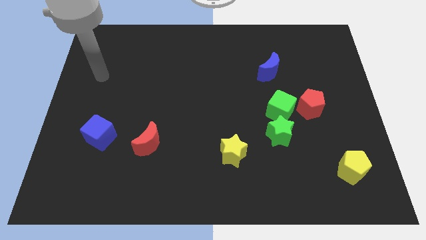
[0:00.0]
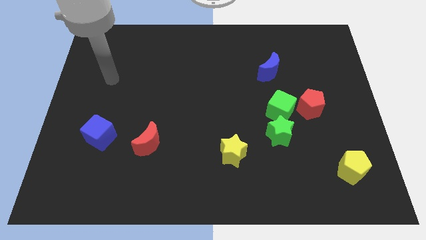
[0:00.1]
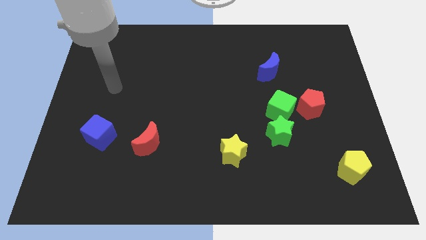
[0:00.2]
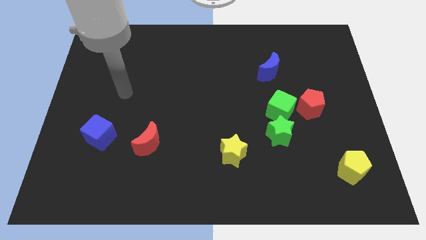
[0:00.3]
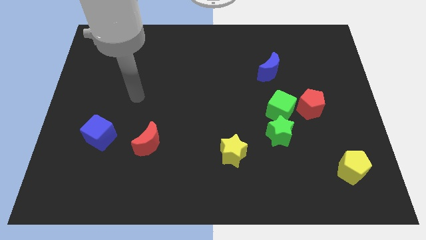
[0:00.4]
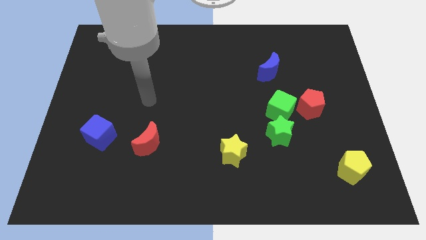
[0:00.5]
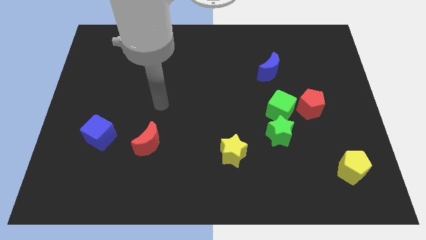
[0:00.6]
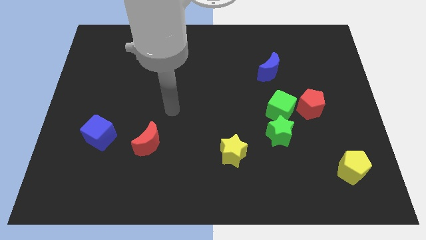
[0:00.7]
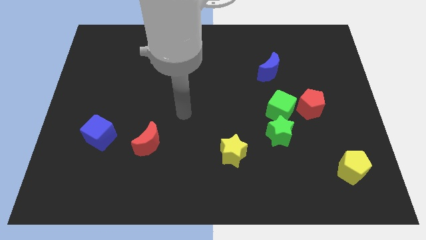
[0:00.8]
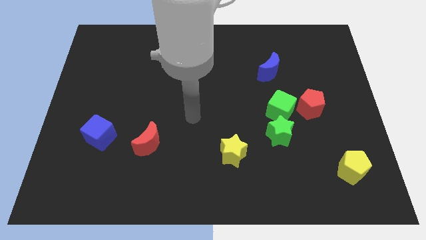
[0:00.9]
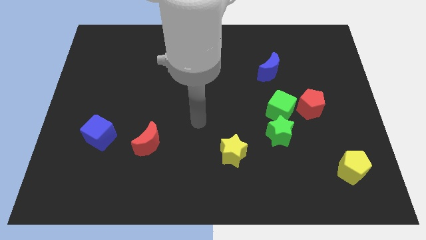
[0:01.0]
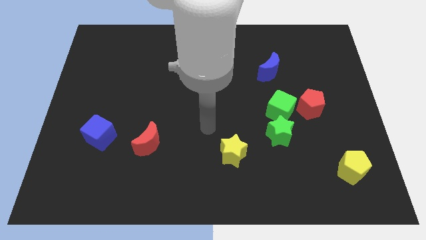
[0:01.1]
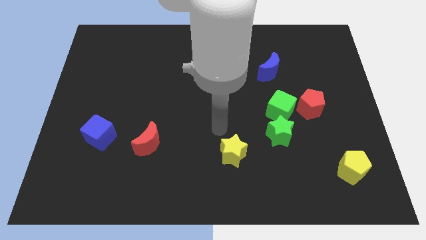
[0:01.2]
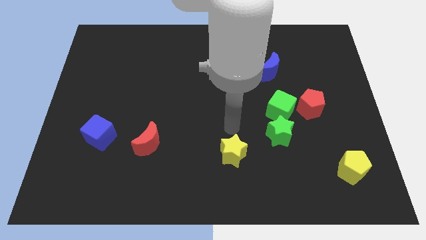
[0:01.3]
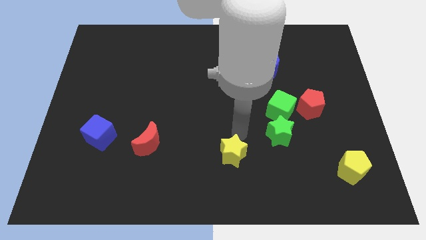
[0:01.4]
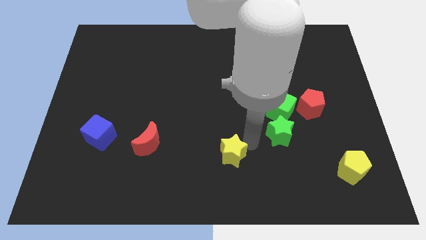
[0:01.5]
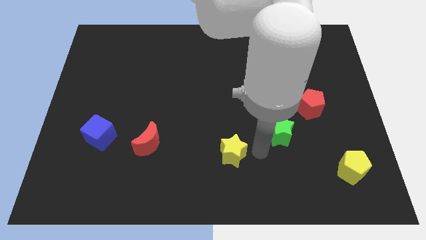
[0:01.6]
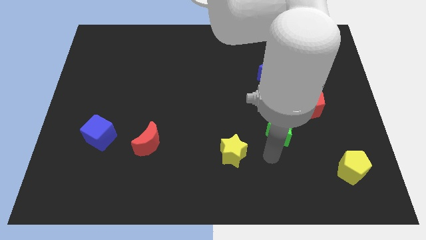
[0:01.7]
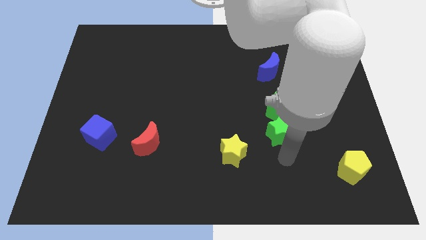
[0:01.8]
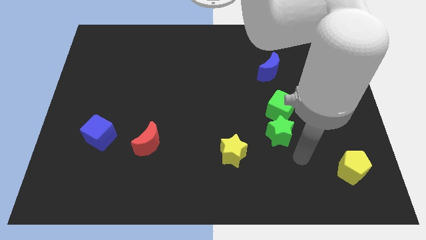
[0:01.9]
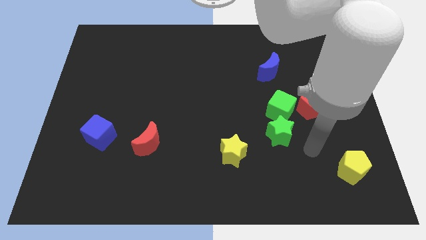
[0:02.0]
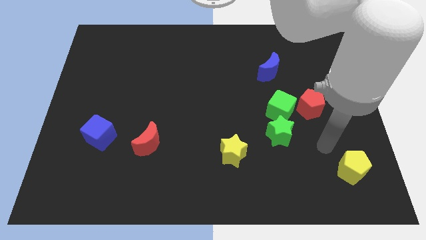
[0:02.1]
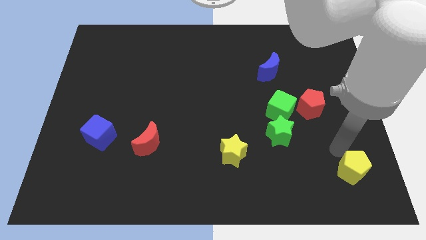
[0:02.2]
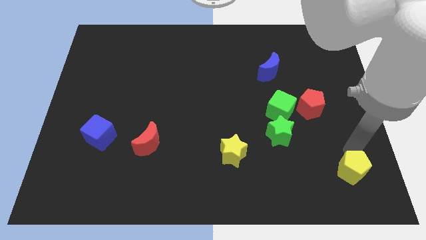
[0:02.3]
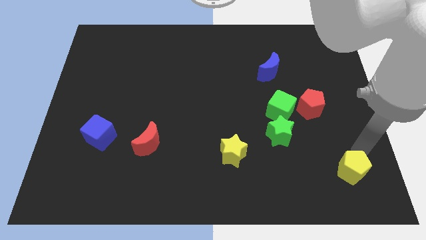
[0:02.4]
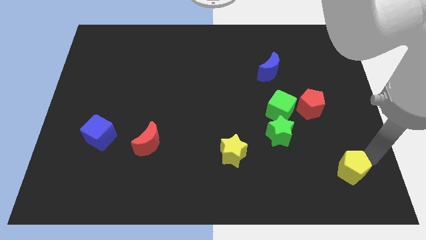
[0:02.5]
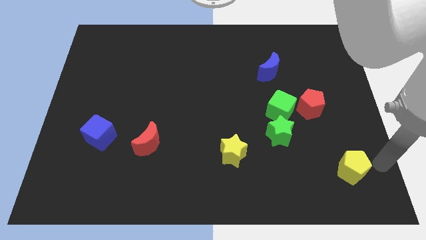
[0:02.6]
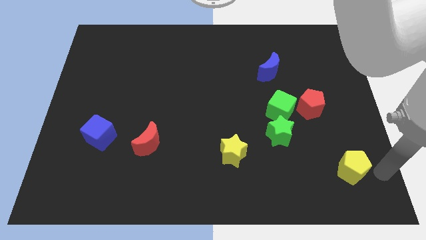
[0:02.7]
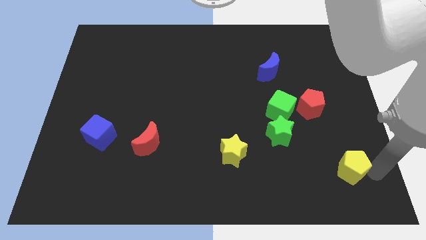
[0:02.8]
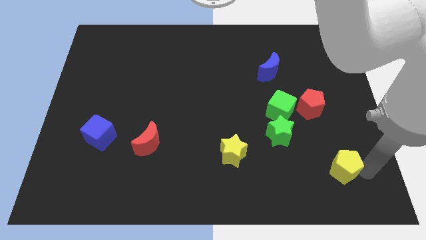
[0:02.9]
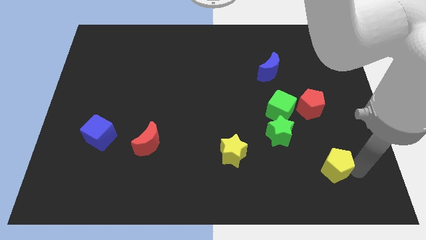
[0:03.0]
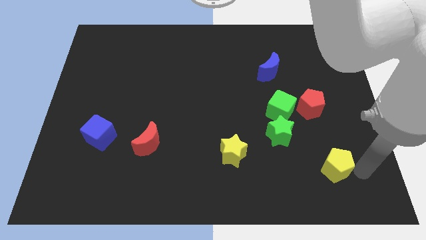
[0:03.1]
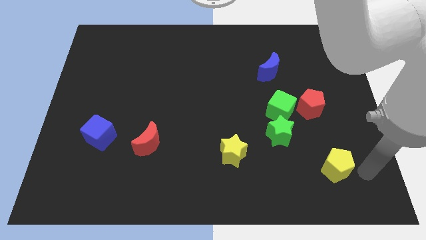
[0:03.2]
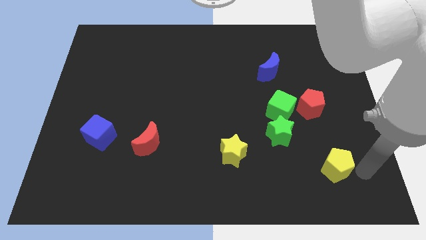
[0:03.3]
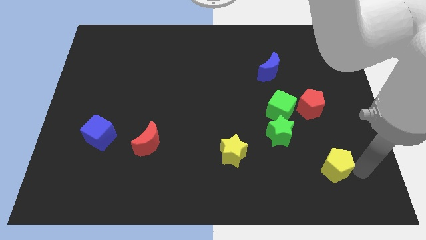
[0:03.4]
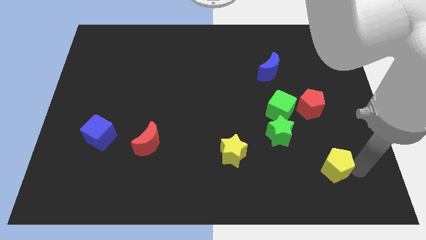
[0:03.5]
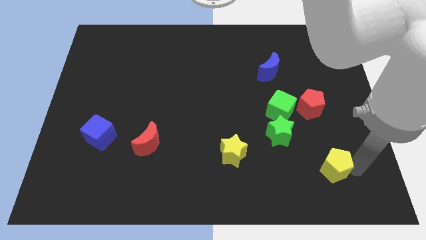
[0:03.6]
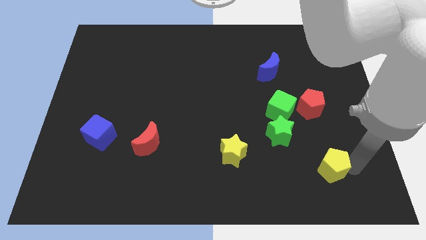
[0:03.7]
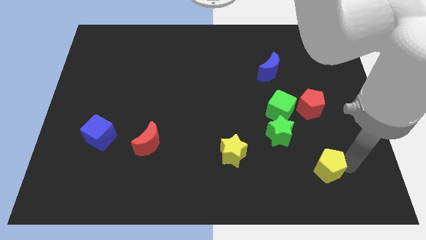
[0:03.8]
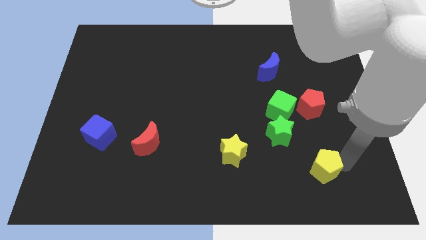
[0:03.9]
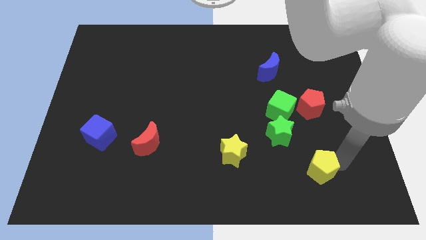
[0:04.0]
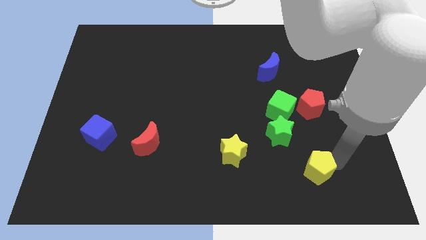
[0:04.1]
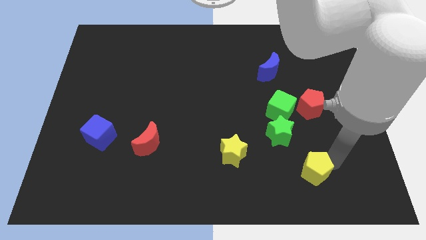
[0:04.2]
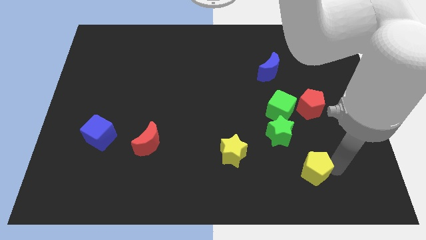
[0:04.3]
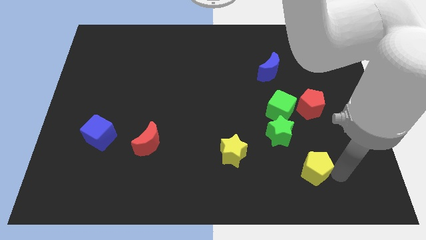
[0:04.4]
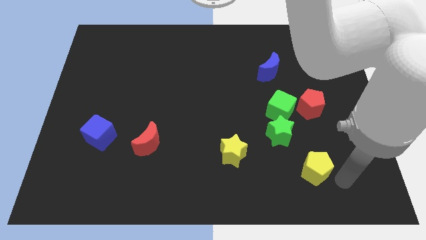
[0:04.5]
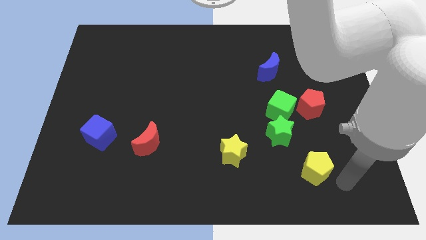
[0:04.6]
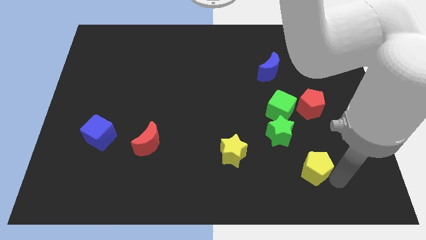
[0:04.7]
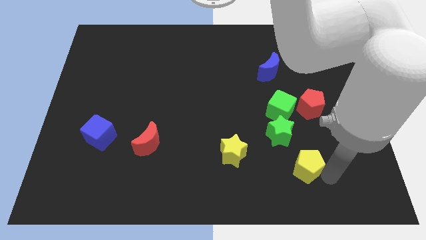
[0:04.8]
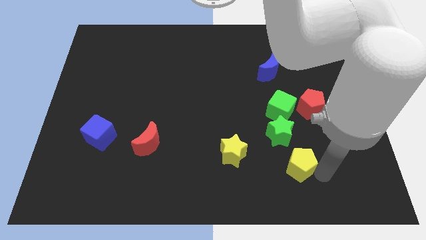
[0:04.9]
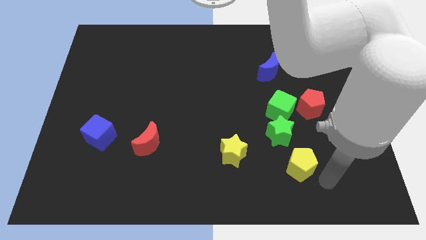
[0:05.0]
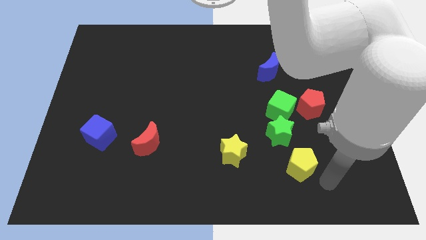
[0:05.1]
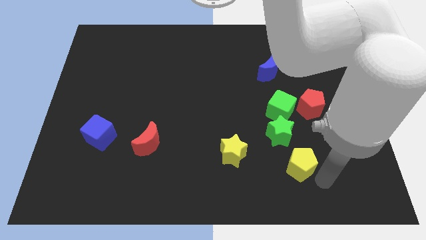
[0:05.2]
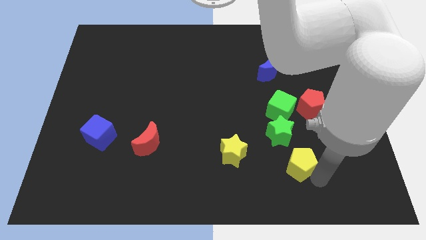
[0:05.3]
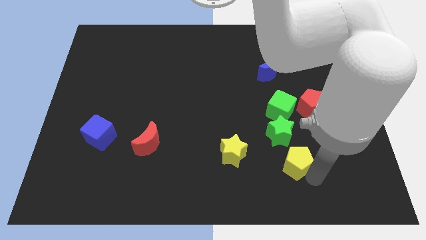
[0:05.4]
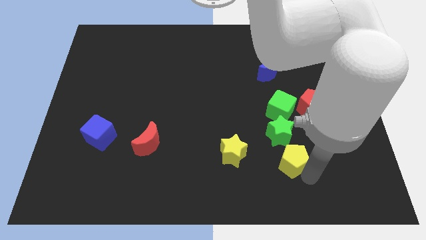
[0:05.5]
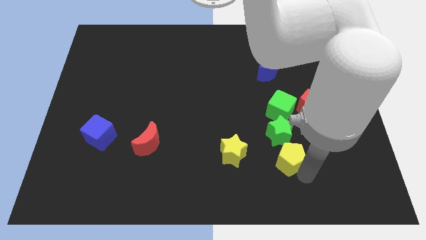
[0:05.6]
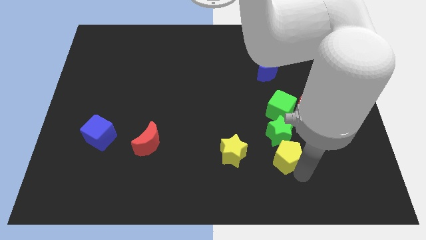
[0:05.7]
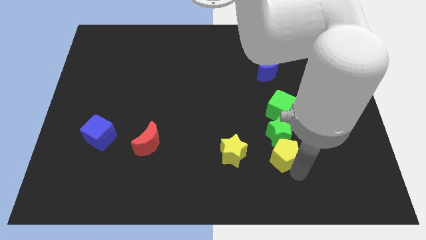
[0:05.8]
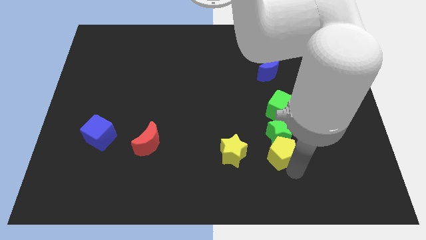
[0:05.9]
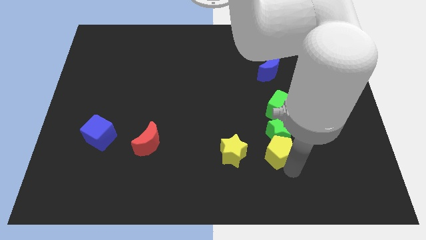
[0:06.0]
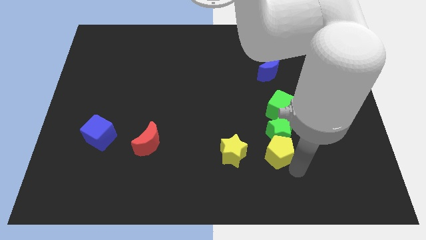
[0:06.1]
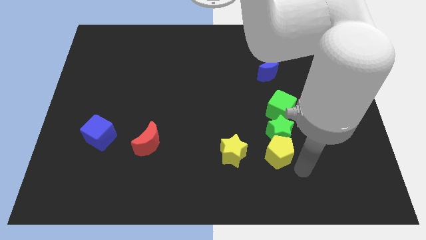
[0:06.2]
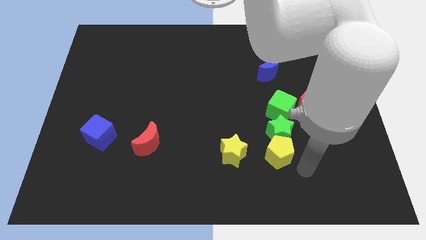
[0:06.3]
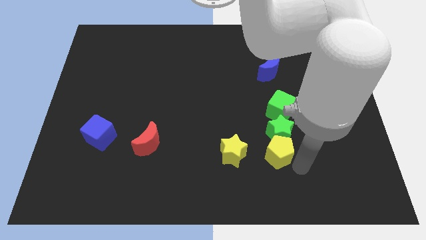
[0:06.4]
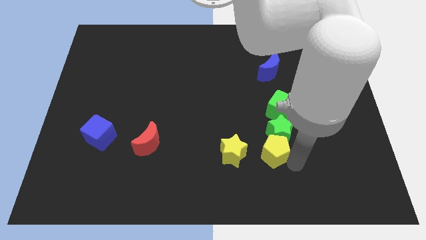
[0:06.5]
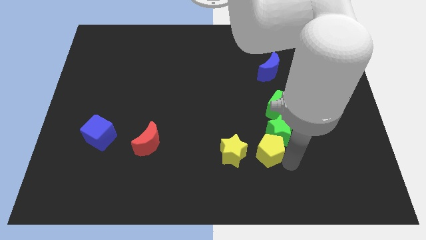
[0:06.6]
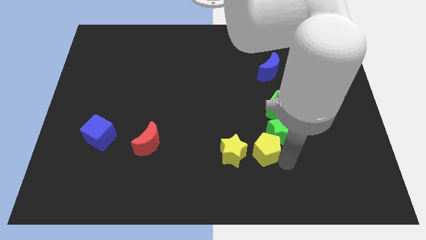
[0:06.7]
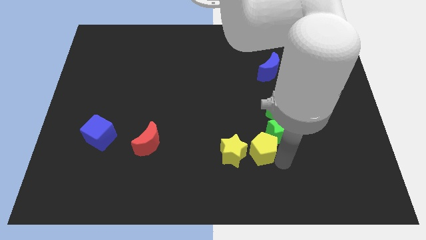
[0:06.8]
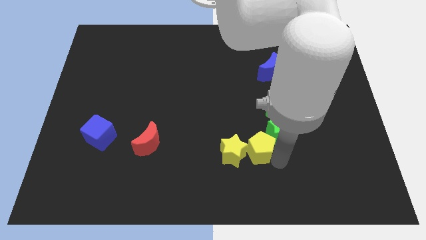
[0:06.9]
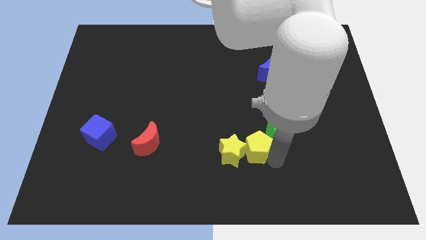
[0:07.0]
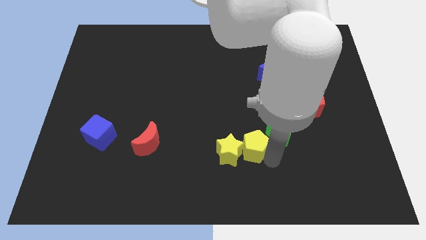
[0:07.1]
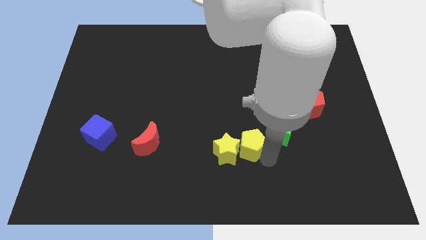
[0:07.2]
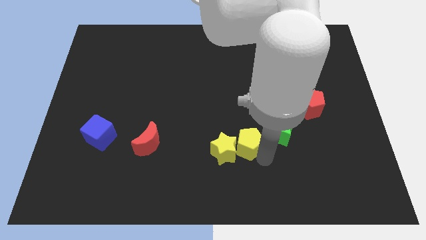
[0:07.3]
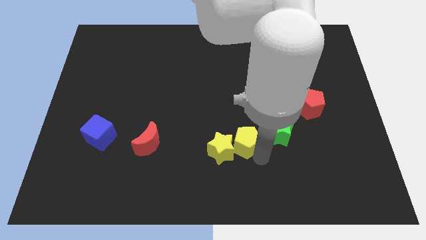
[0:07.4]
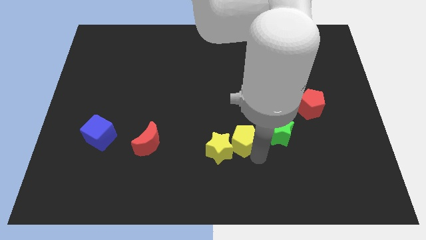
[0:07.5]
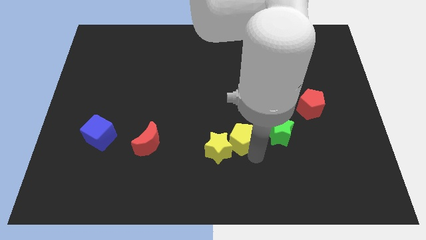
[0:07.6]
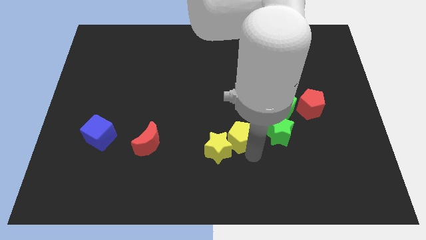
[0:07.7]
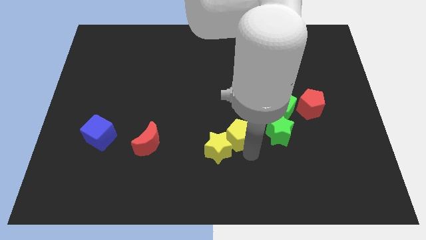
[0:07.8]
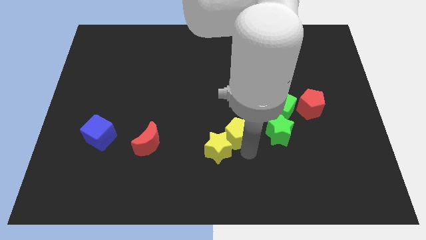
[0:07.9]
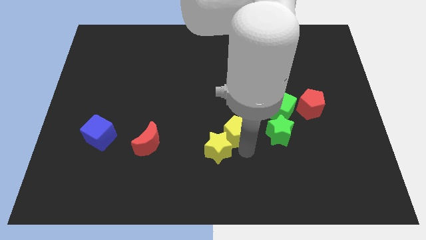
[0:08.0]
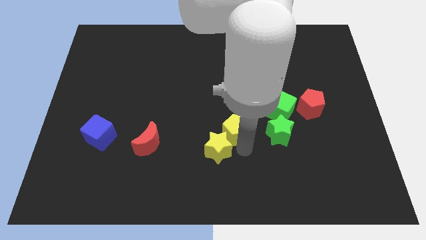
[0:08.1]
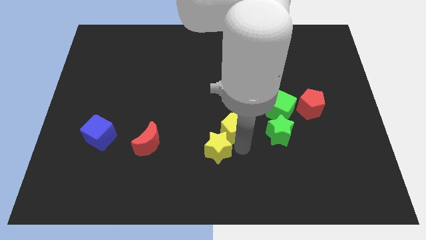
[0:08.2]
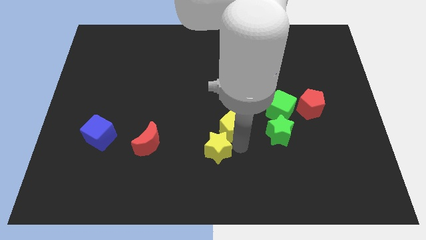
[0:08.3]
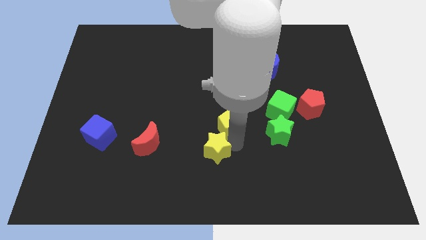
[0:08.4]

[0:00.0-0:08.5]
slide the yellow pentagon upwards and then to the left
